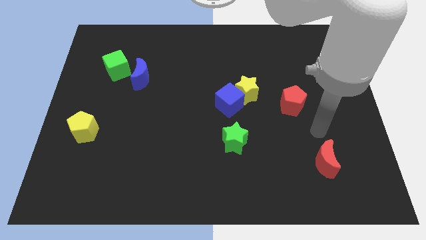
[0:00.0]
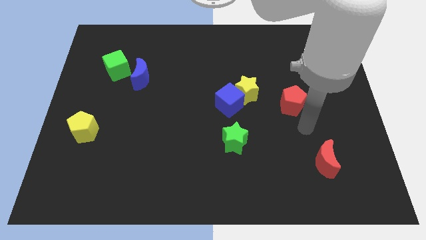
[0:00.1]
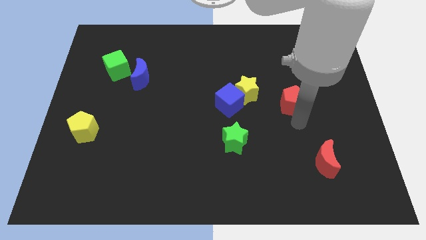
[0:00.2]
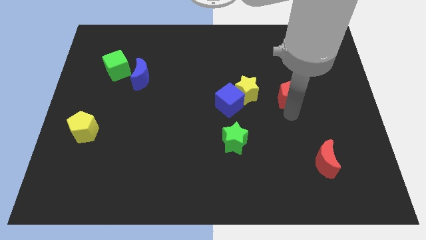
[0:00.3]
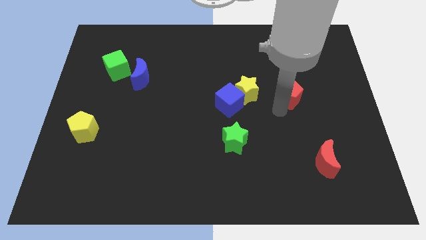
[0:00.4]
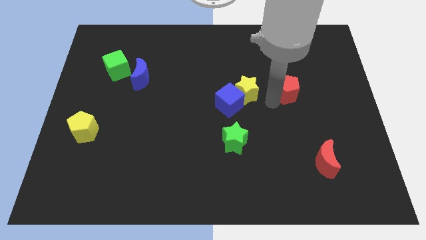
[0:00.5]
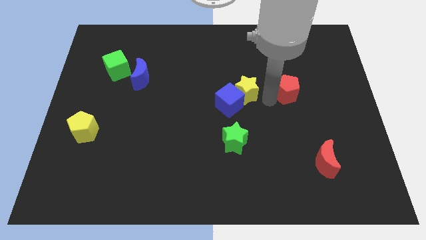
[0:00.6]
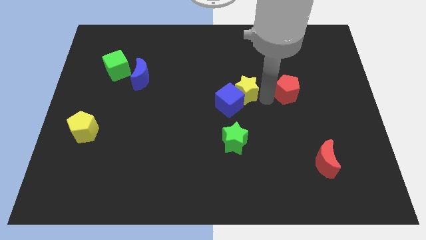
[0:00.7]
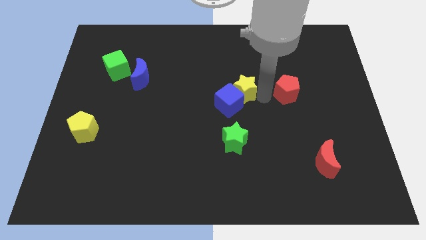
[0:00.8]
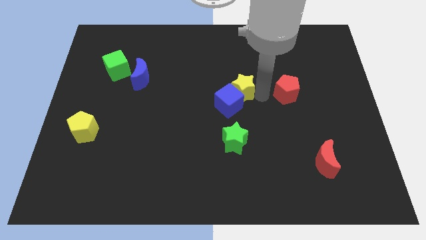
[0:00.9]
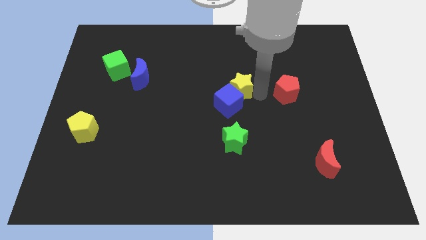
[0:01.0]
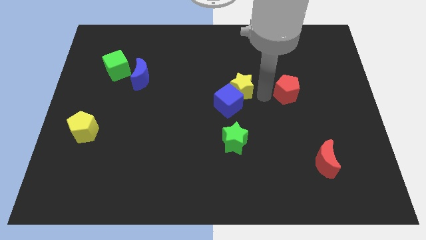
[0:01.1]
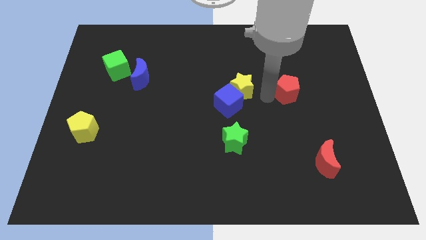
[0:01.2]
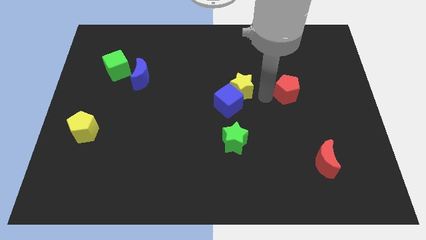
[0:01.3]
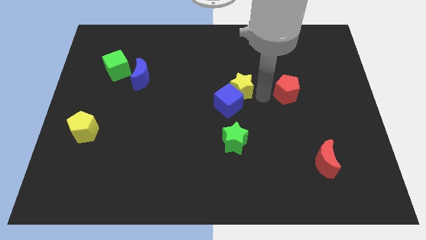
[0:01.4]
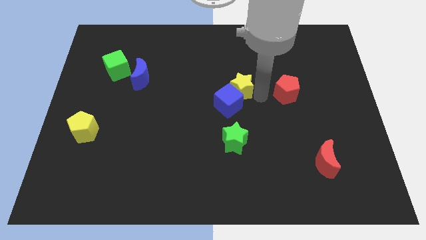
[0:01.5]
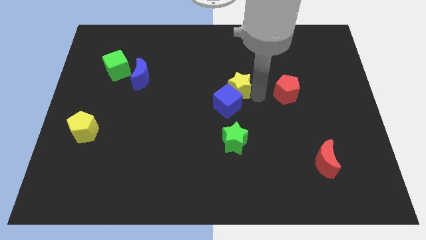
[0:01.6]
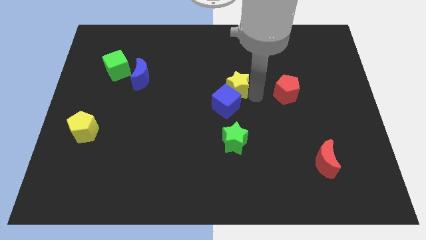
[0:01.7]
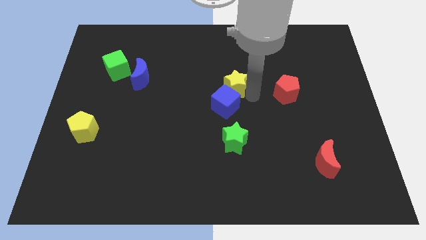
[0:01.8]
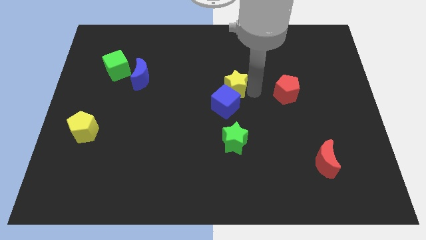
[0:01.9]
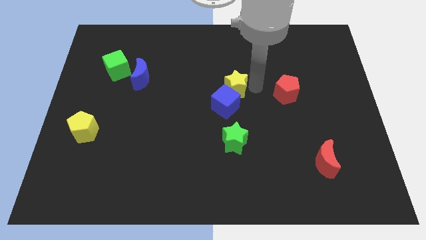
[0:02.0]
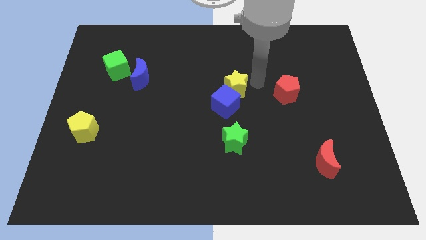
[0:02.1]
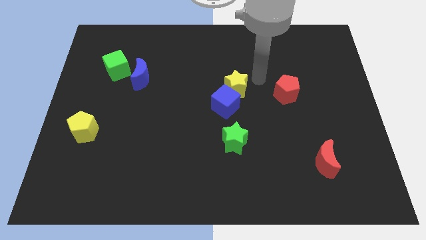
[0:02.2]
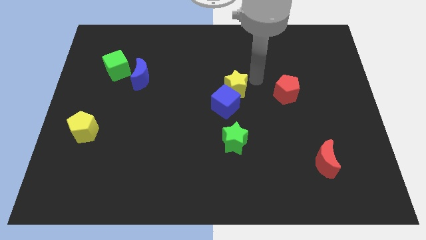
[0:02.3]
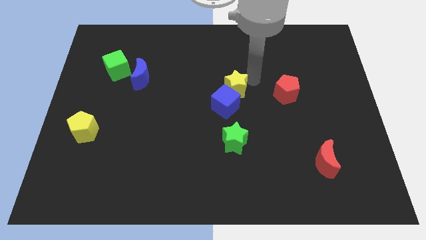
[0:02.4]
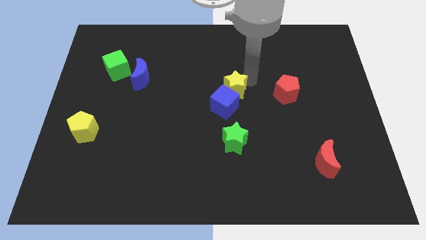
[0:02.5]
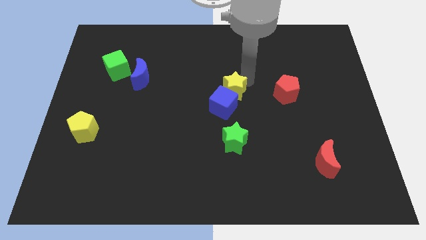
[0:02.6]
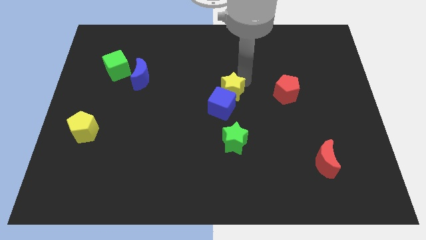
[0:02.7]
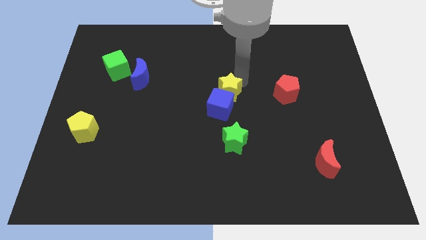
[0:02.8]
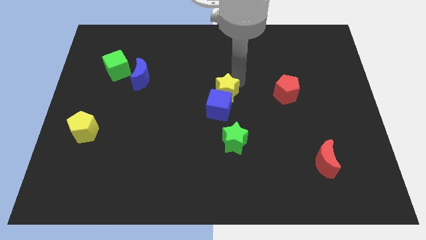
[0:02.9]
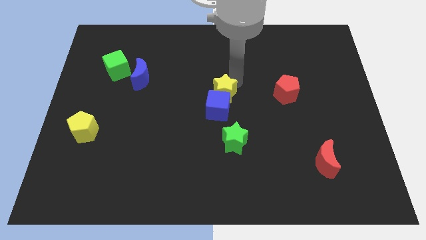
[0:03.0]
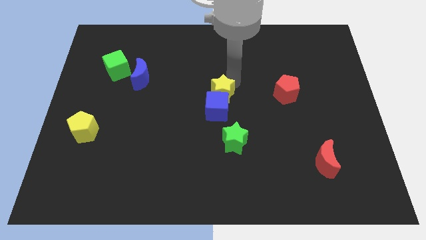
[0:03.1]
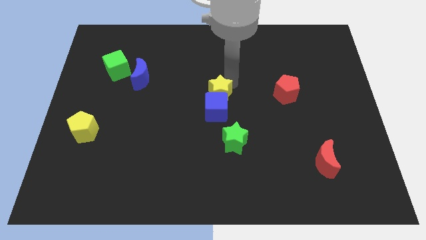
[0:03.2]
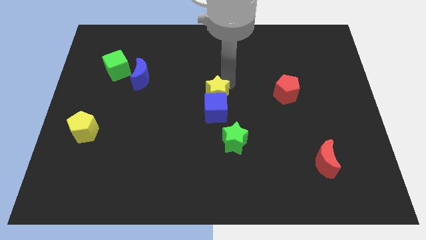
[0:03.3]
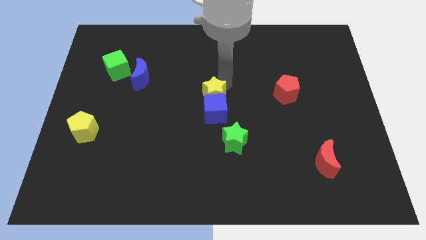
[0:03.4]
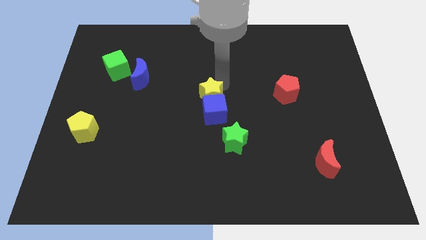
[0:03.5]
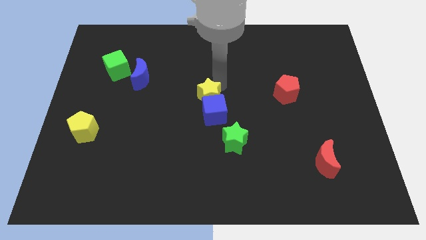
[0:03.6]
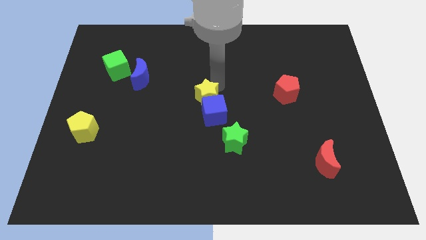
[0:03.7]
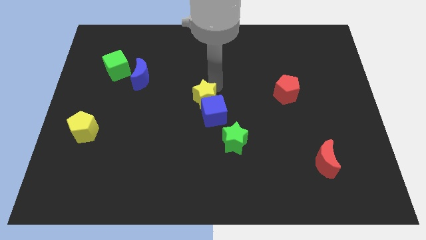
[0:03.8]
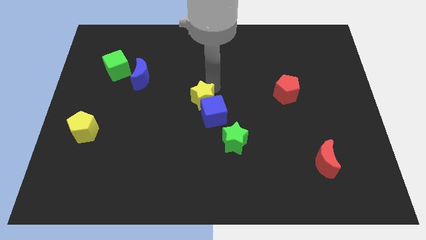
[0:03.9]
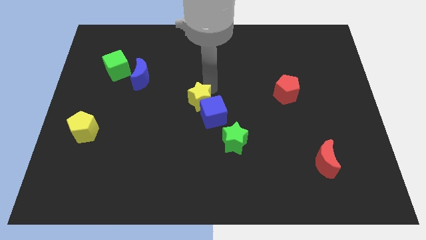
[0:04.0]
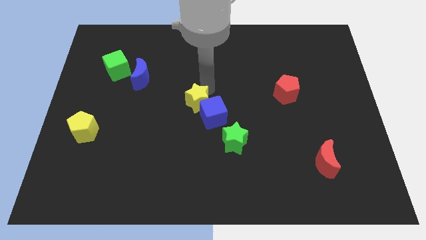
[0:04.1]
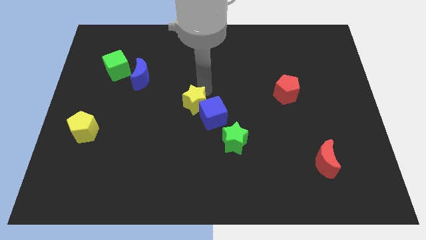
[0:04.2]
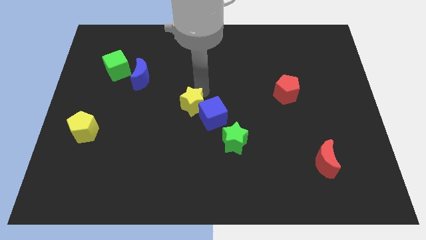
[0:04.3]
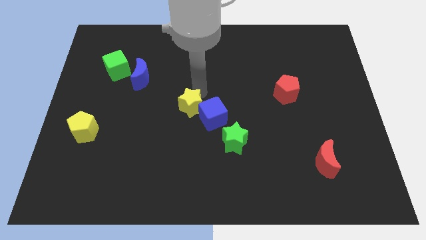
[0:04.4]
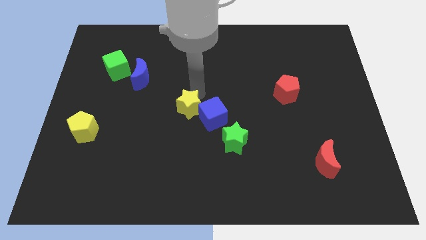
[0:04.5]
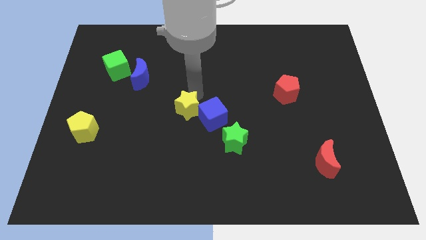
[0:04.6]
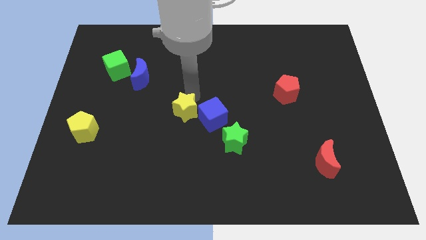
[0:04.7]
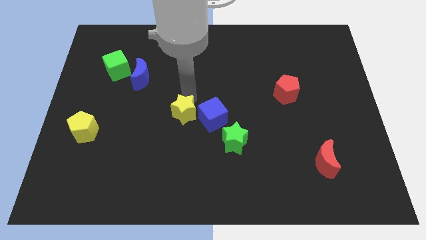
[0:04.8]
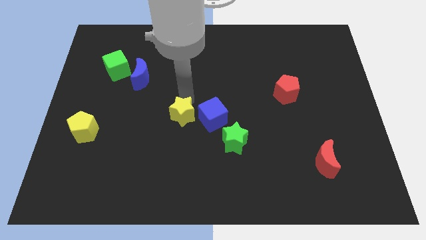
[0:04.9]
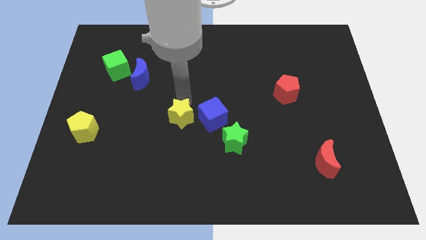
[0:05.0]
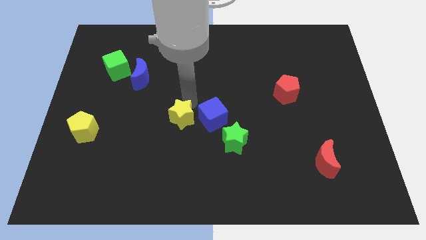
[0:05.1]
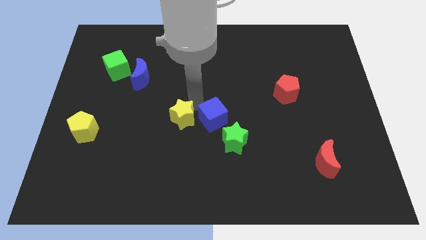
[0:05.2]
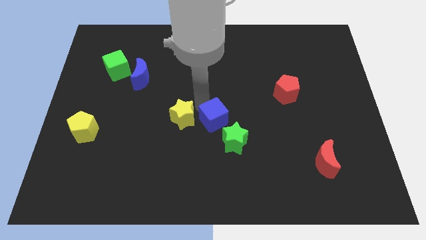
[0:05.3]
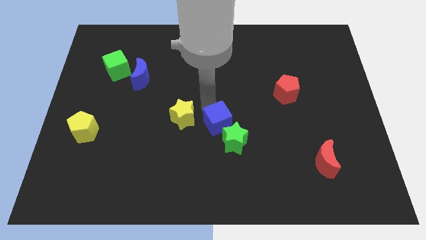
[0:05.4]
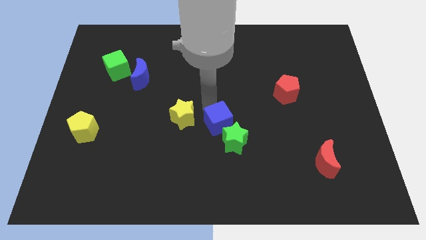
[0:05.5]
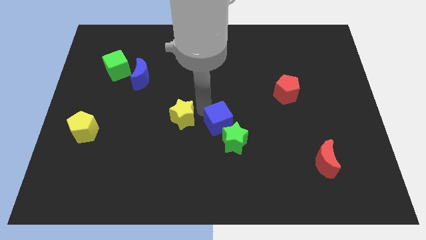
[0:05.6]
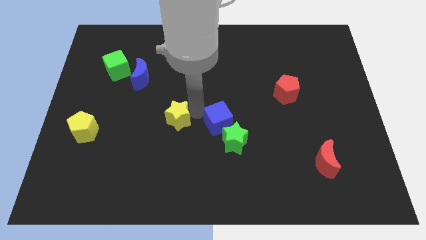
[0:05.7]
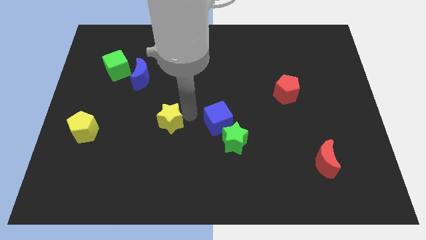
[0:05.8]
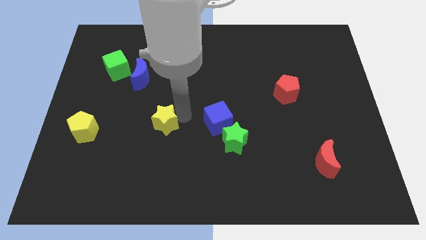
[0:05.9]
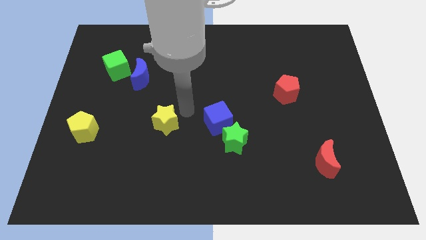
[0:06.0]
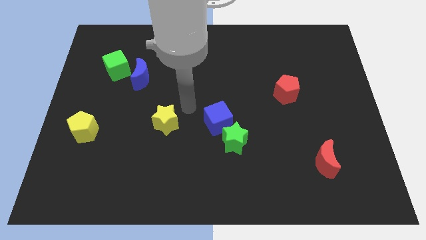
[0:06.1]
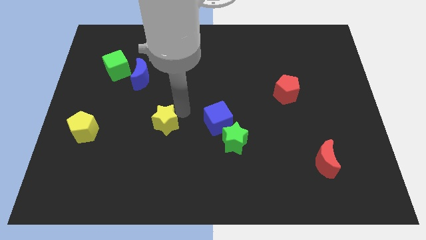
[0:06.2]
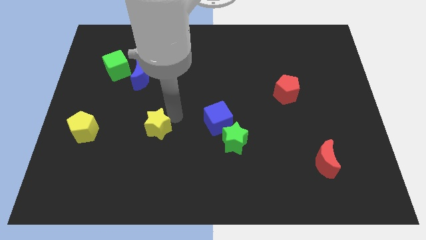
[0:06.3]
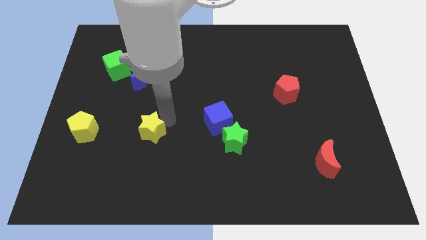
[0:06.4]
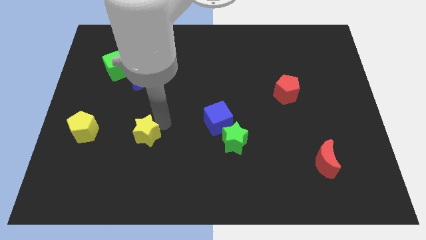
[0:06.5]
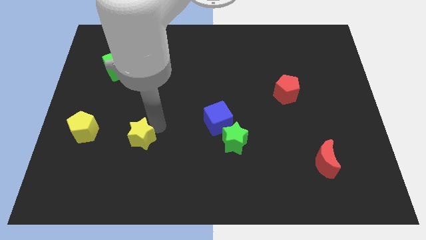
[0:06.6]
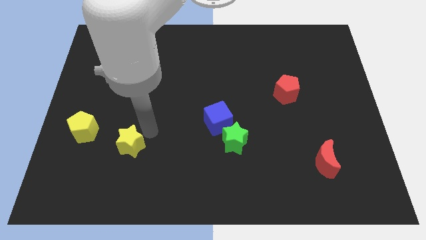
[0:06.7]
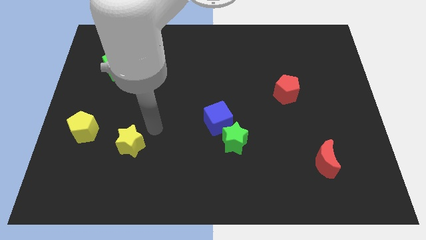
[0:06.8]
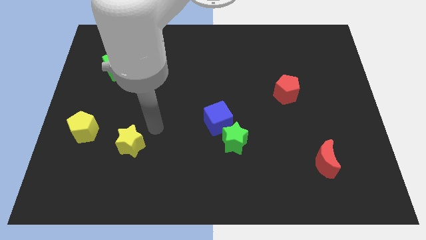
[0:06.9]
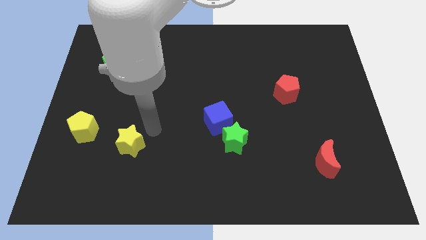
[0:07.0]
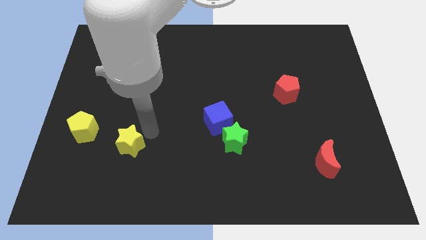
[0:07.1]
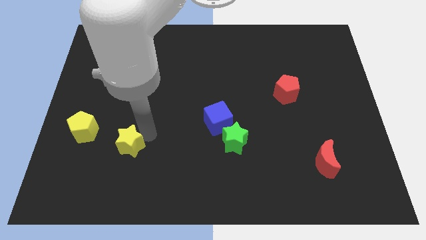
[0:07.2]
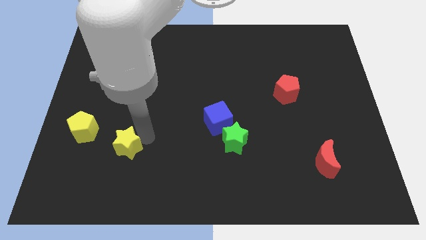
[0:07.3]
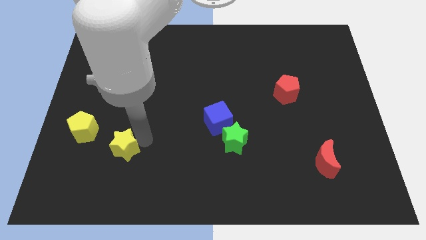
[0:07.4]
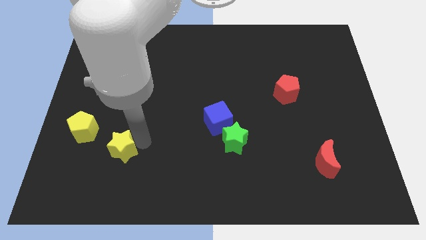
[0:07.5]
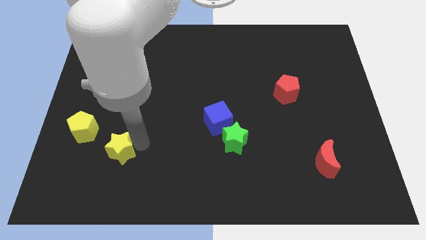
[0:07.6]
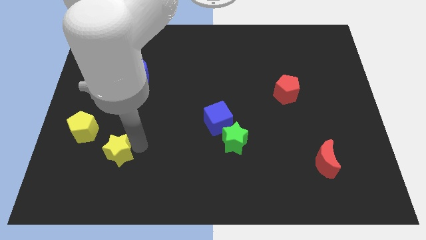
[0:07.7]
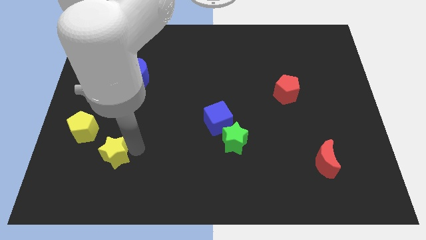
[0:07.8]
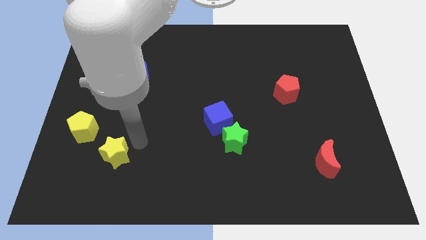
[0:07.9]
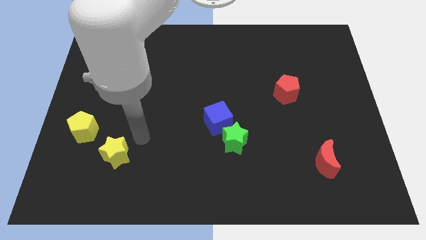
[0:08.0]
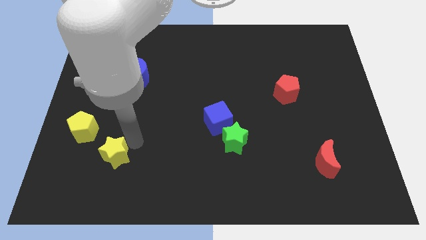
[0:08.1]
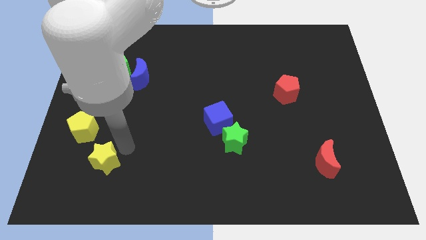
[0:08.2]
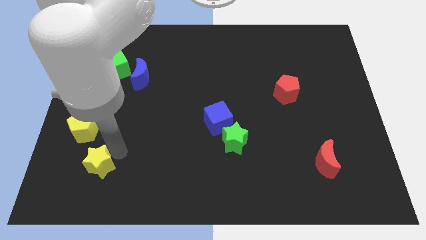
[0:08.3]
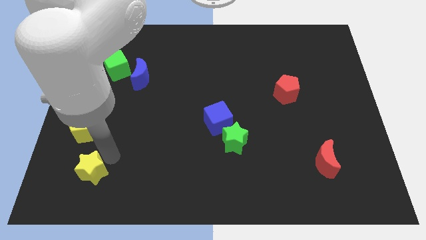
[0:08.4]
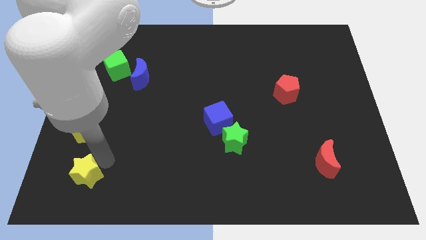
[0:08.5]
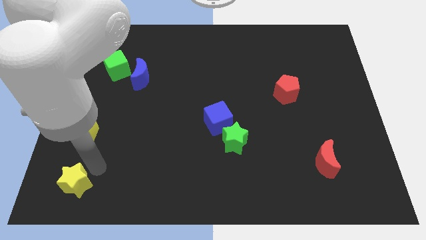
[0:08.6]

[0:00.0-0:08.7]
push the yellow star to the bottom left
